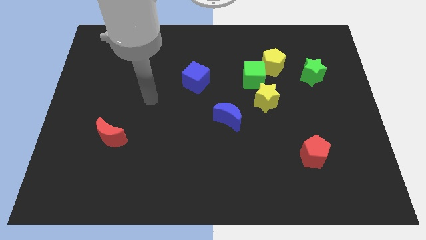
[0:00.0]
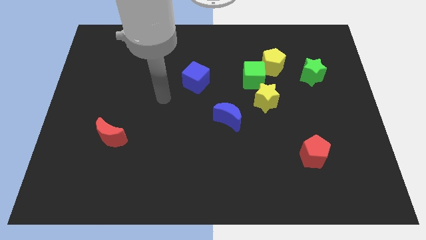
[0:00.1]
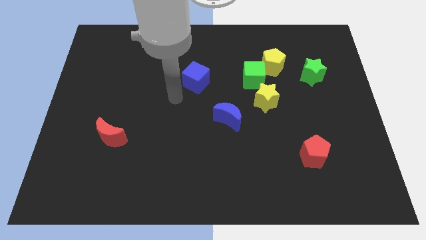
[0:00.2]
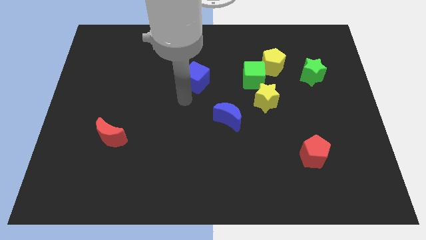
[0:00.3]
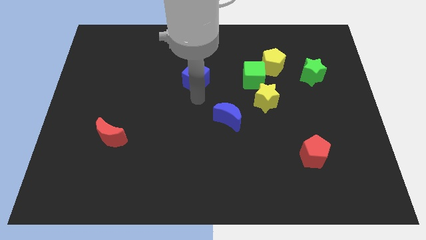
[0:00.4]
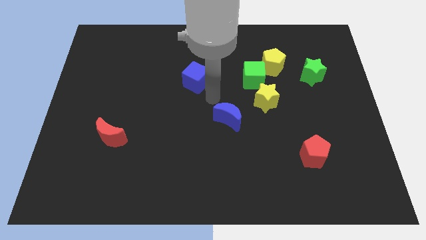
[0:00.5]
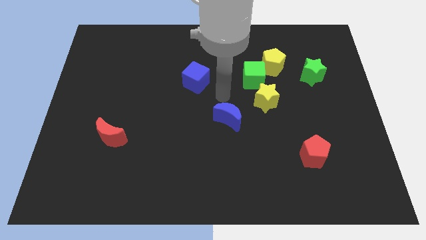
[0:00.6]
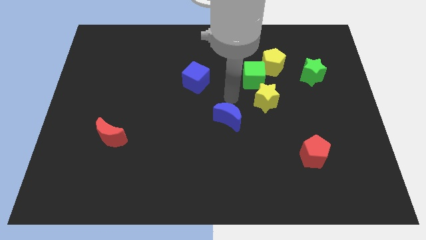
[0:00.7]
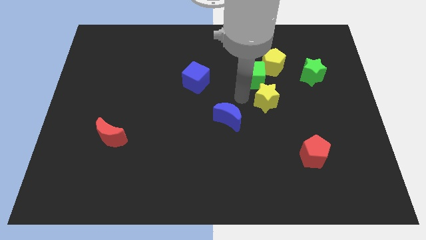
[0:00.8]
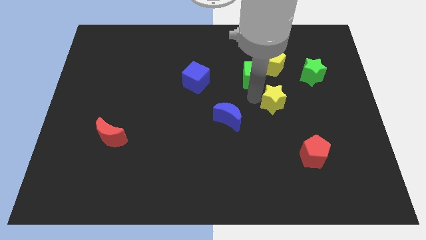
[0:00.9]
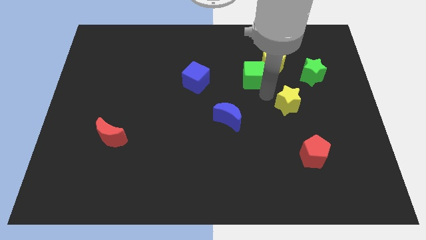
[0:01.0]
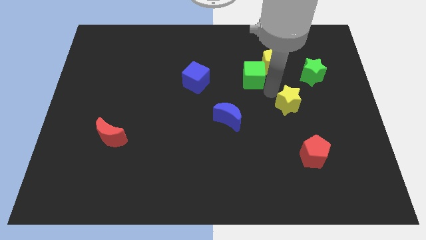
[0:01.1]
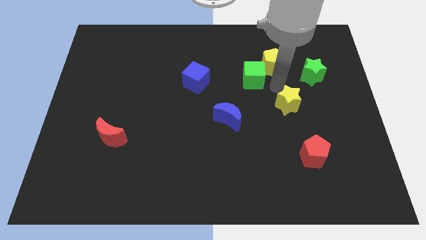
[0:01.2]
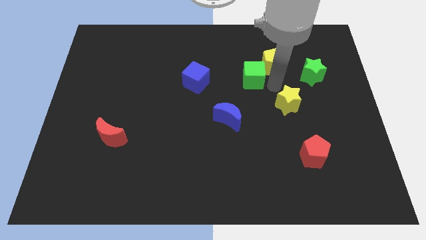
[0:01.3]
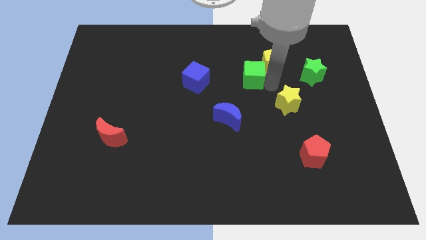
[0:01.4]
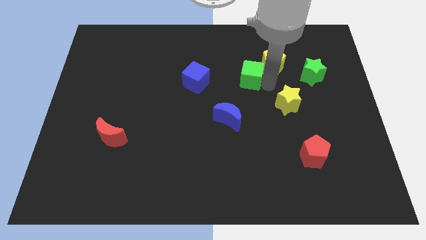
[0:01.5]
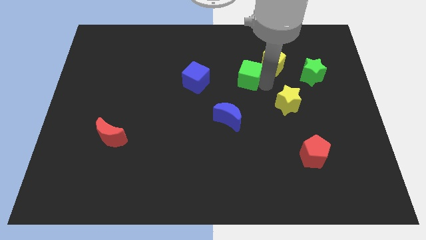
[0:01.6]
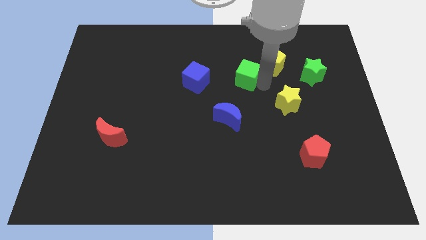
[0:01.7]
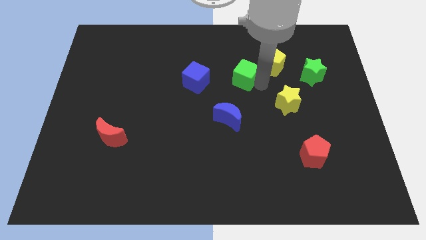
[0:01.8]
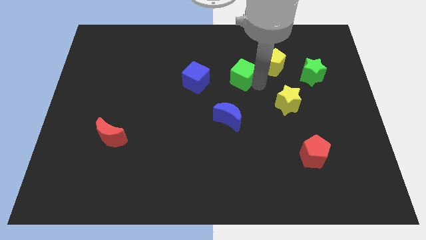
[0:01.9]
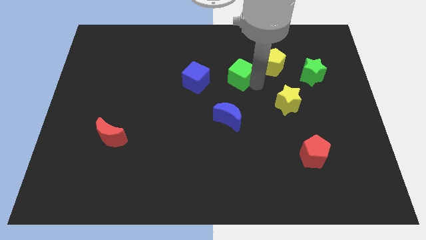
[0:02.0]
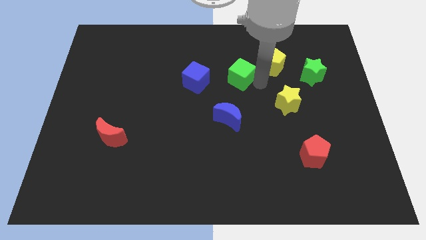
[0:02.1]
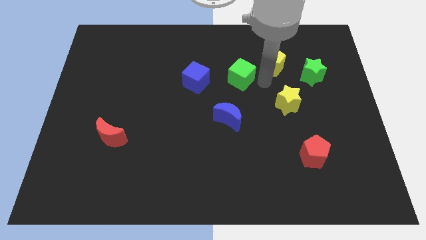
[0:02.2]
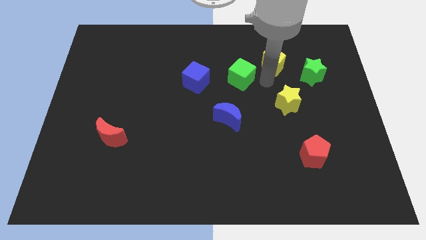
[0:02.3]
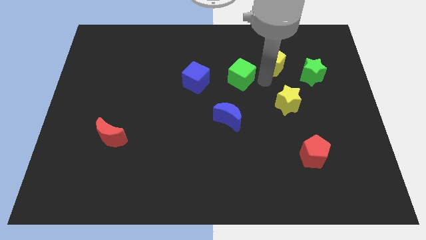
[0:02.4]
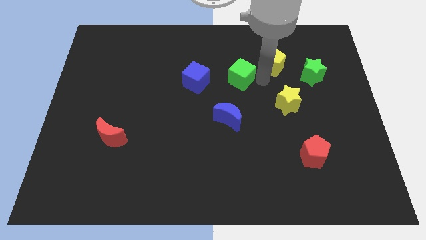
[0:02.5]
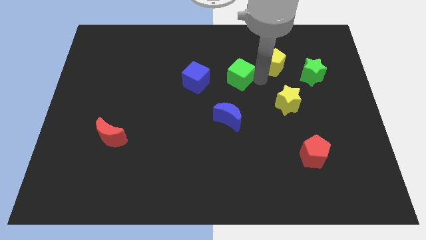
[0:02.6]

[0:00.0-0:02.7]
pull the green cube apart from the yellow pentagon and yellow star

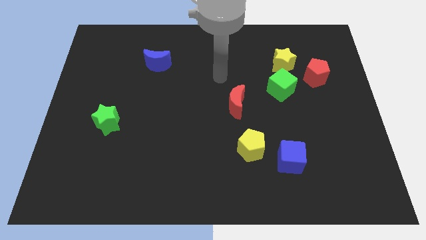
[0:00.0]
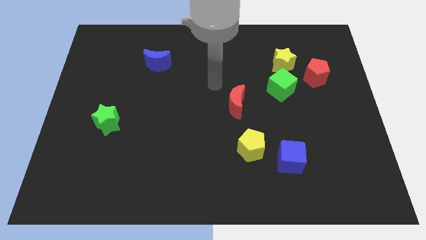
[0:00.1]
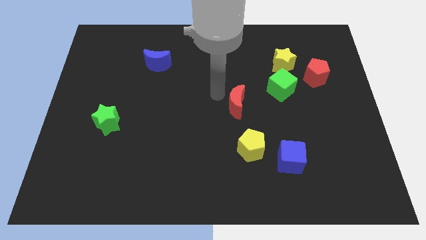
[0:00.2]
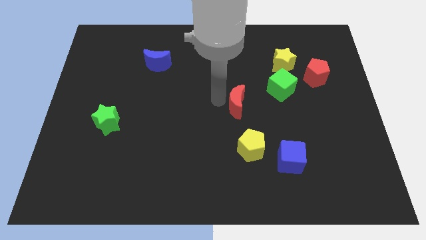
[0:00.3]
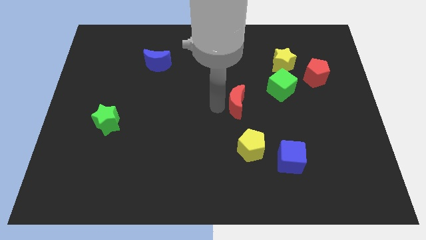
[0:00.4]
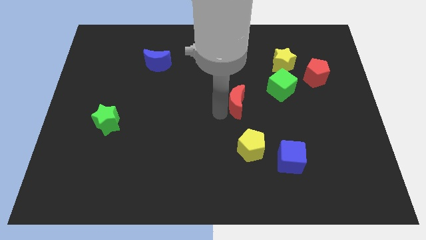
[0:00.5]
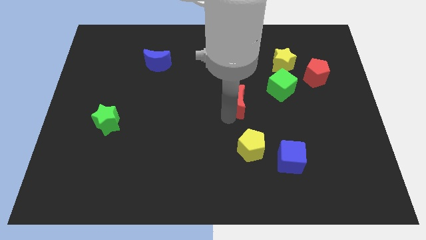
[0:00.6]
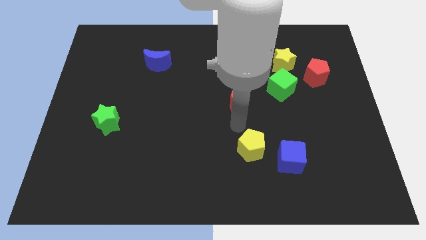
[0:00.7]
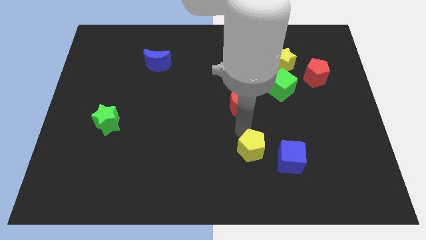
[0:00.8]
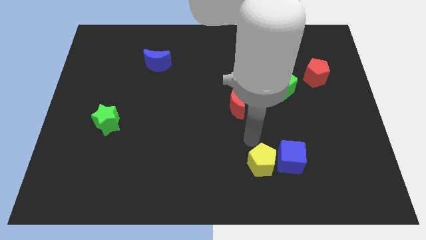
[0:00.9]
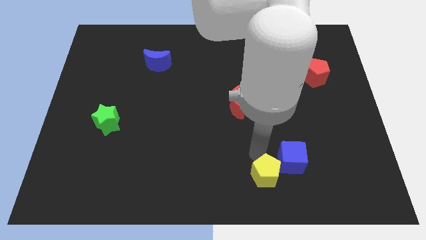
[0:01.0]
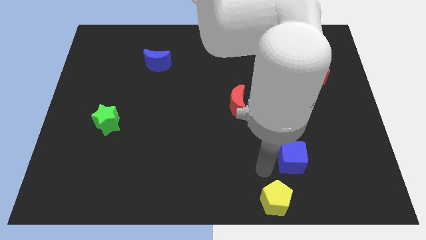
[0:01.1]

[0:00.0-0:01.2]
pull the blue cube apart from the yellow pentagon

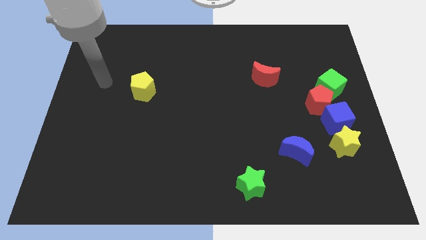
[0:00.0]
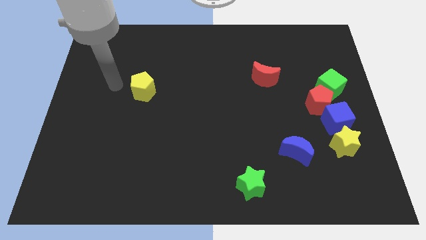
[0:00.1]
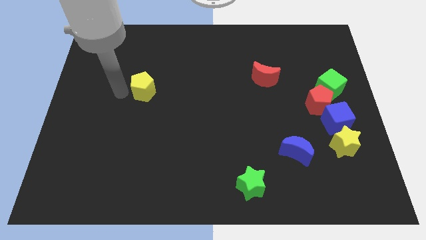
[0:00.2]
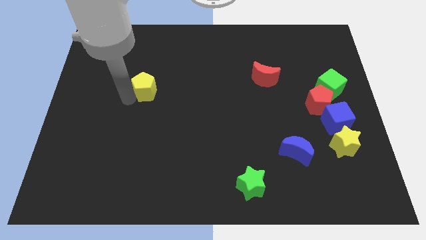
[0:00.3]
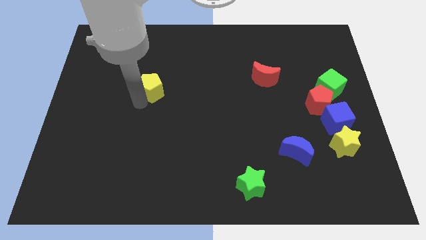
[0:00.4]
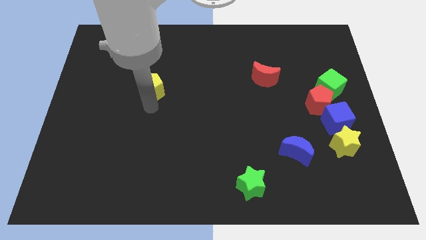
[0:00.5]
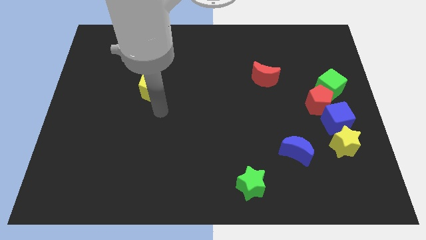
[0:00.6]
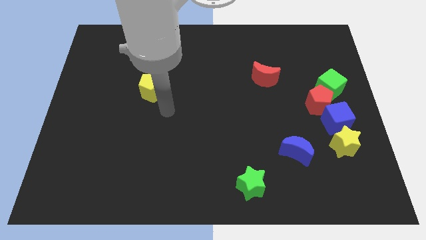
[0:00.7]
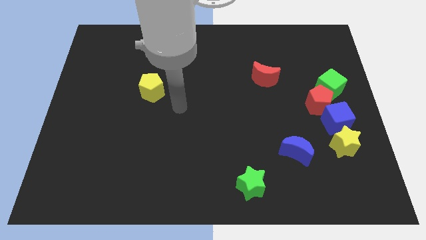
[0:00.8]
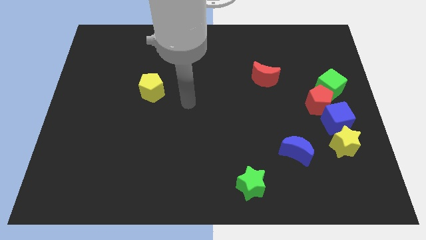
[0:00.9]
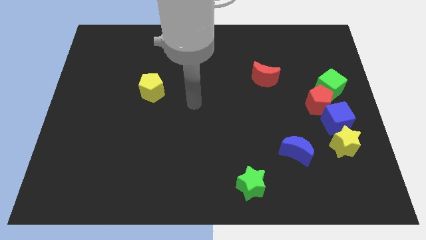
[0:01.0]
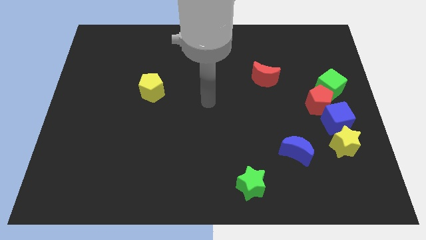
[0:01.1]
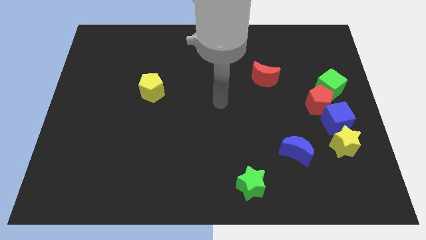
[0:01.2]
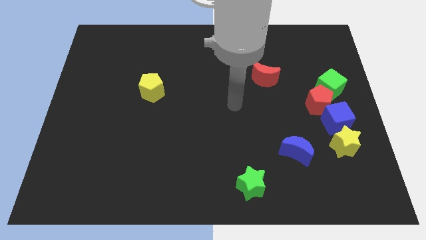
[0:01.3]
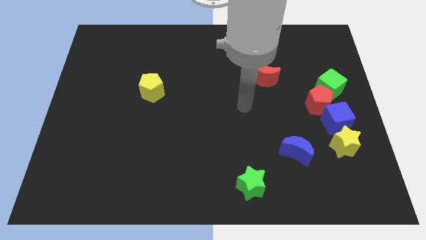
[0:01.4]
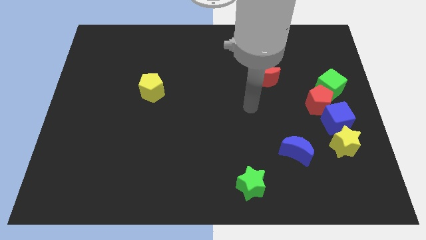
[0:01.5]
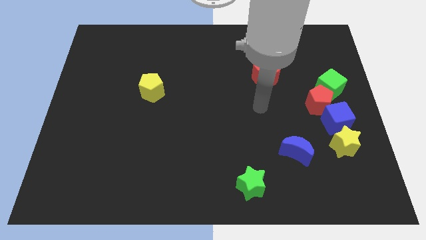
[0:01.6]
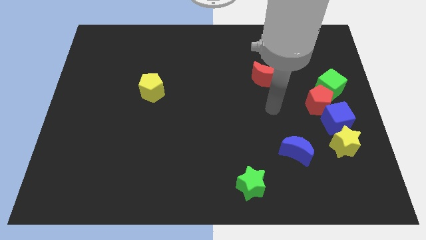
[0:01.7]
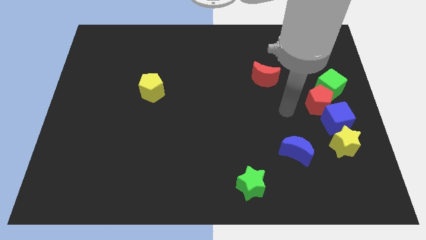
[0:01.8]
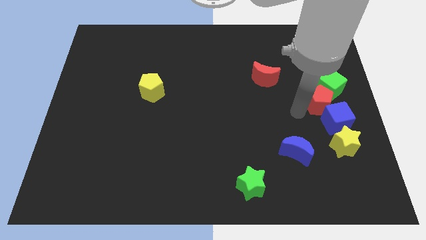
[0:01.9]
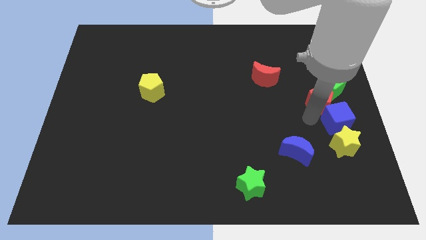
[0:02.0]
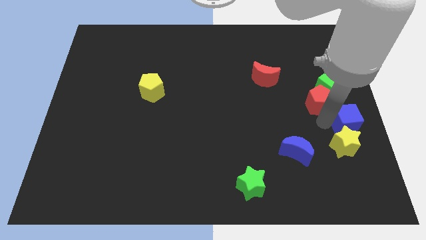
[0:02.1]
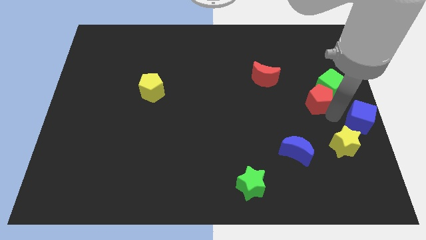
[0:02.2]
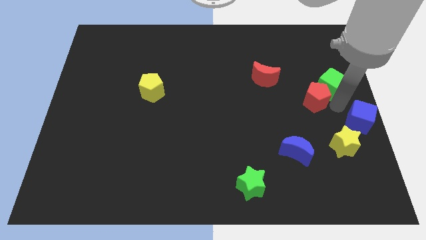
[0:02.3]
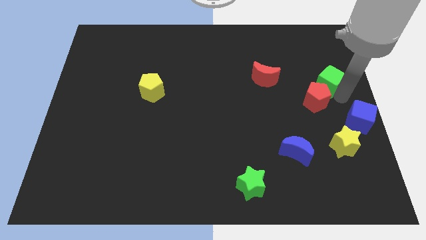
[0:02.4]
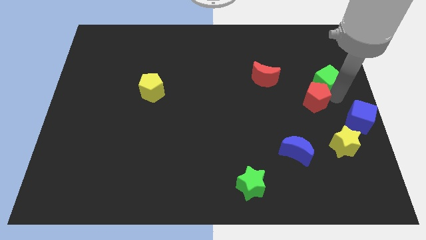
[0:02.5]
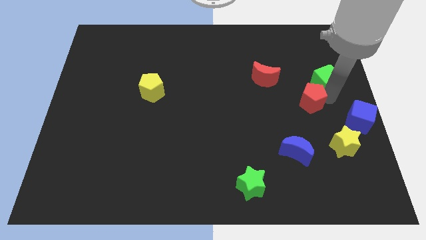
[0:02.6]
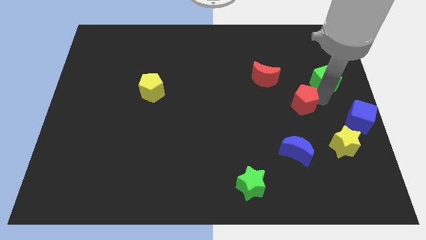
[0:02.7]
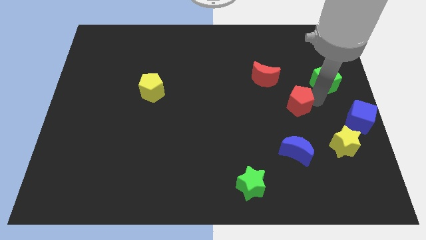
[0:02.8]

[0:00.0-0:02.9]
separate the red pentagon from the blue cube and green cube

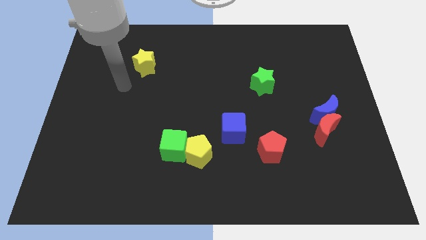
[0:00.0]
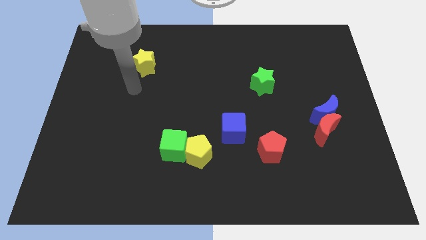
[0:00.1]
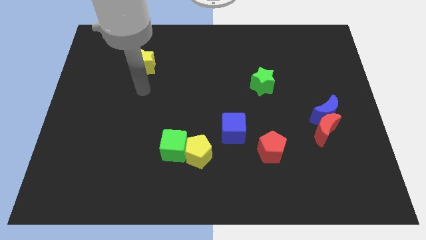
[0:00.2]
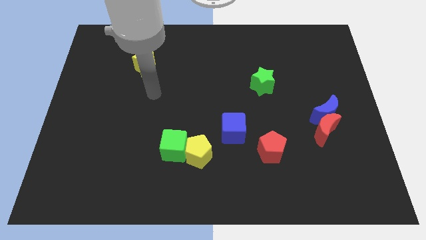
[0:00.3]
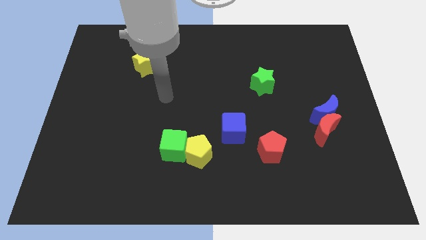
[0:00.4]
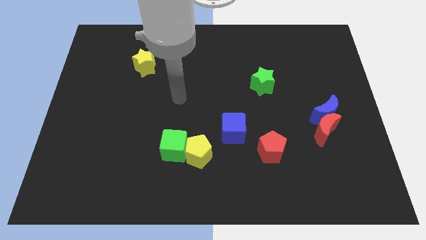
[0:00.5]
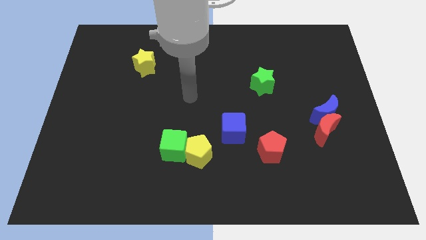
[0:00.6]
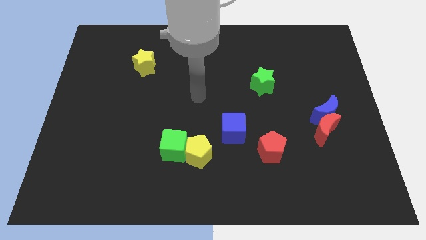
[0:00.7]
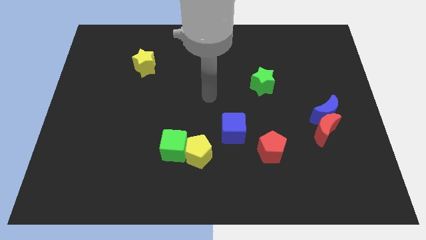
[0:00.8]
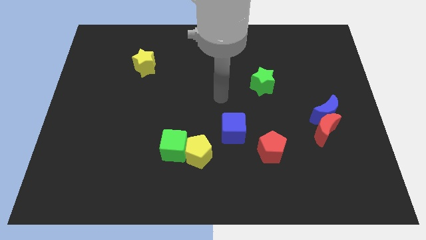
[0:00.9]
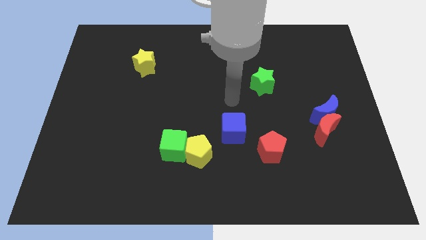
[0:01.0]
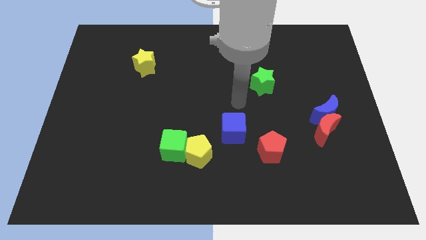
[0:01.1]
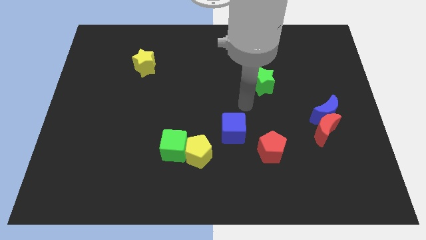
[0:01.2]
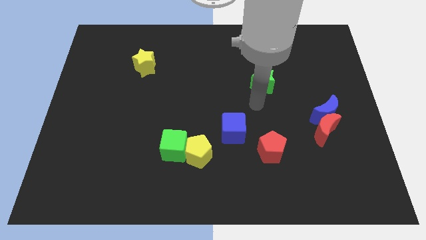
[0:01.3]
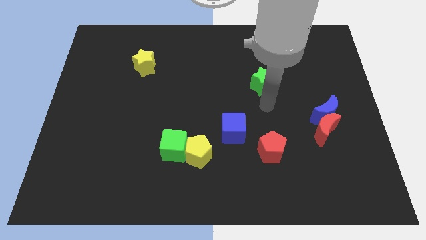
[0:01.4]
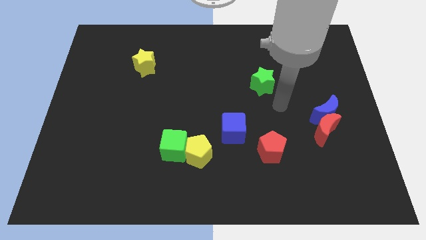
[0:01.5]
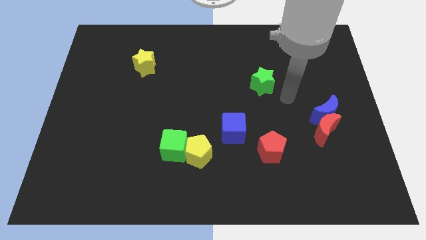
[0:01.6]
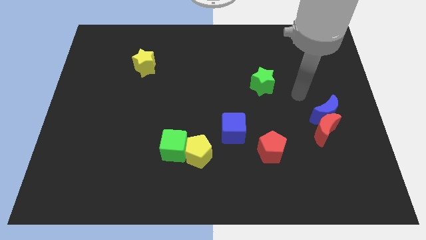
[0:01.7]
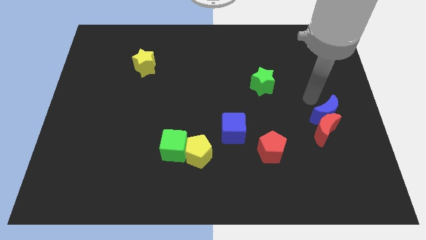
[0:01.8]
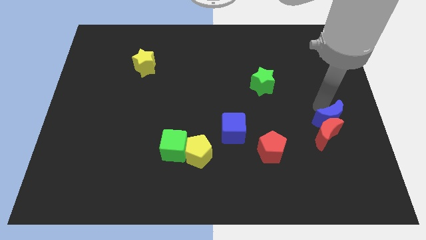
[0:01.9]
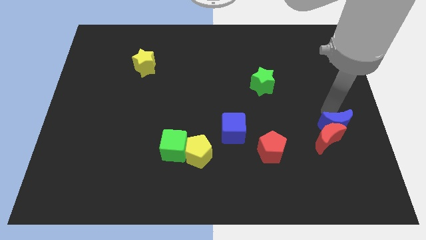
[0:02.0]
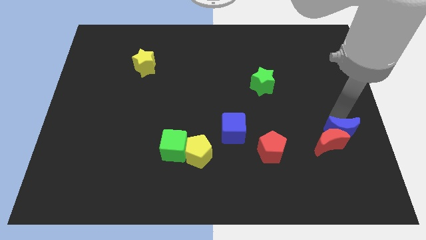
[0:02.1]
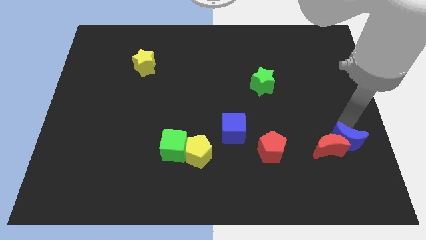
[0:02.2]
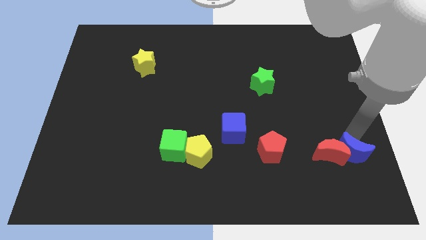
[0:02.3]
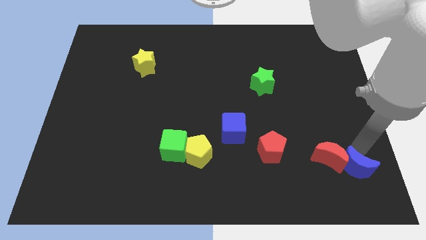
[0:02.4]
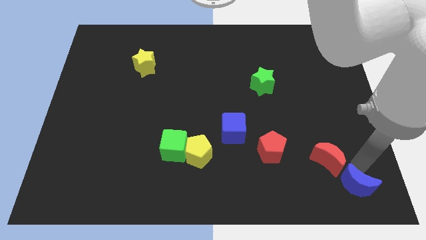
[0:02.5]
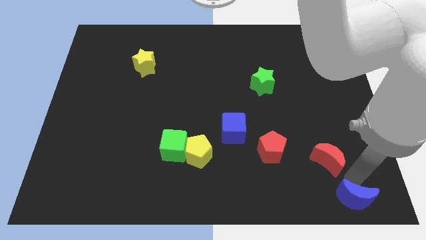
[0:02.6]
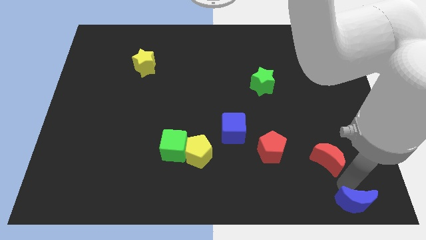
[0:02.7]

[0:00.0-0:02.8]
move the red moon away from the blue moon
